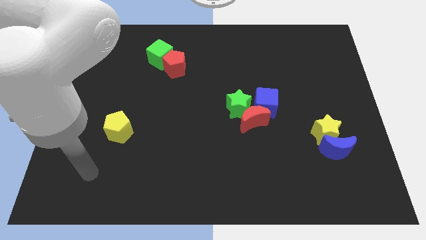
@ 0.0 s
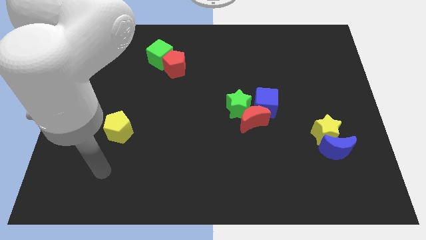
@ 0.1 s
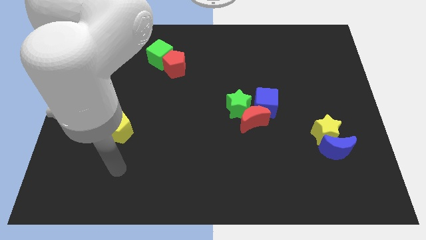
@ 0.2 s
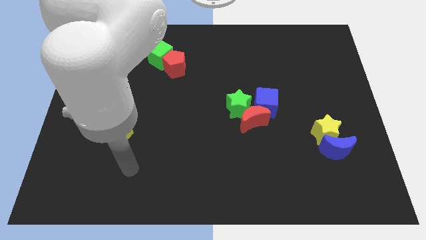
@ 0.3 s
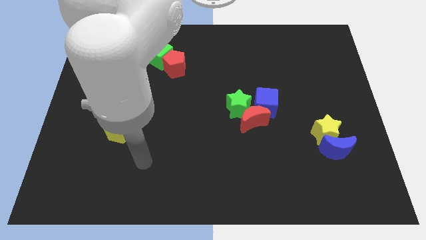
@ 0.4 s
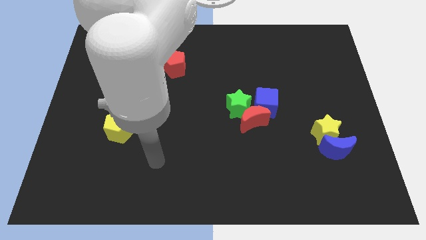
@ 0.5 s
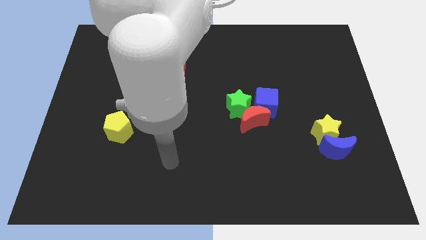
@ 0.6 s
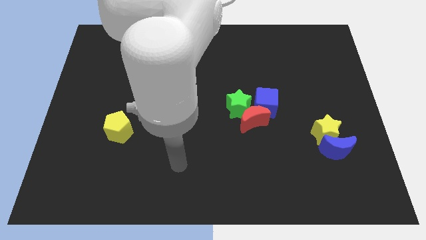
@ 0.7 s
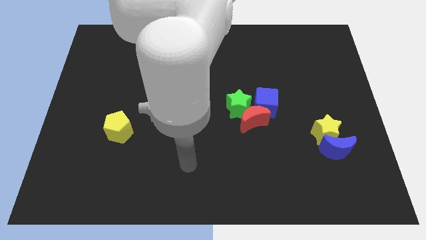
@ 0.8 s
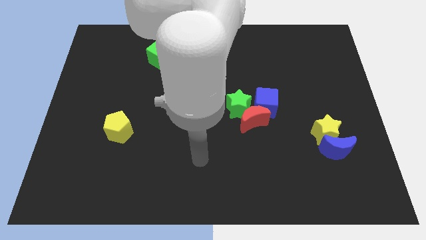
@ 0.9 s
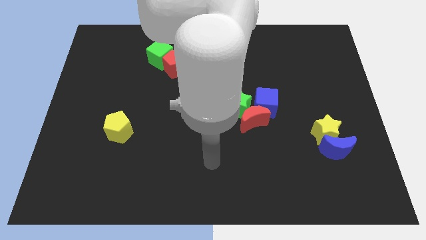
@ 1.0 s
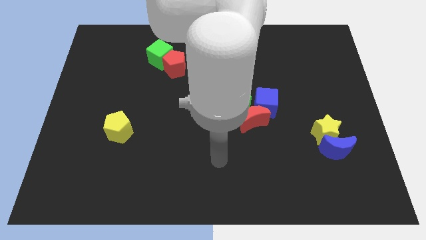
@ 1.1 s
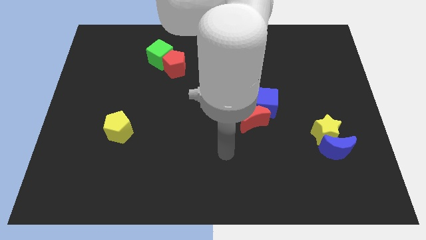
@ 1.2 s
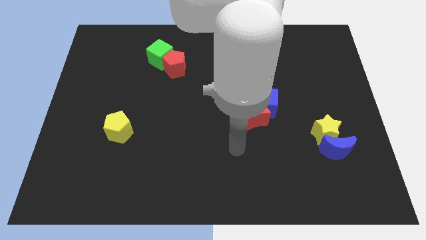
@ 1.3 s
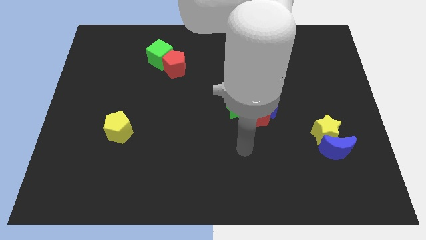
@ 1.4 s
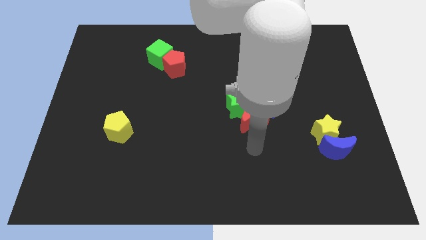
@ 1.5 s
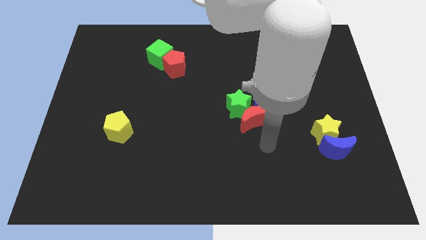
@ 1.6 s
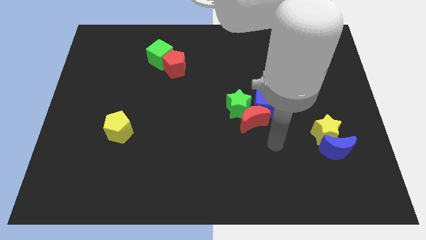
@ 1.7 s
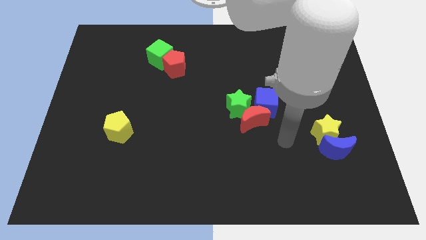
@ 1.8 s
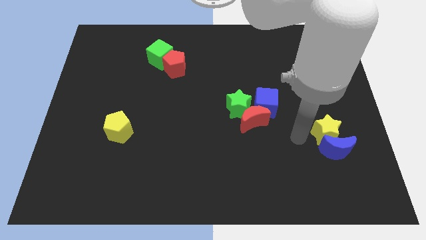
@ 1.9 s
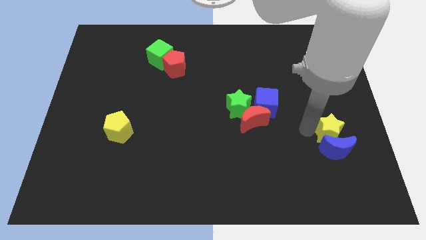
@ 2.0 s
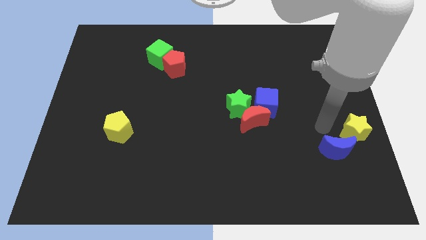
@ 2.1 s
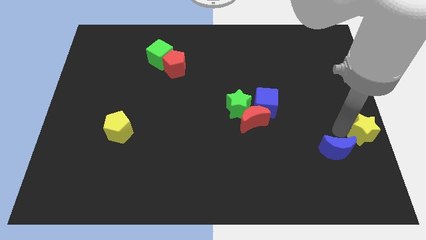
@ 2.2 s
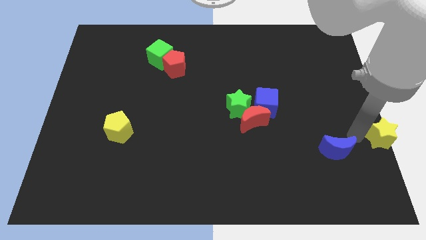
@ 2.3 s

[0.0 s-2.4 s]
separate the blue moon from the yellow star

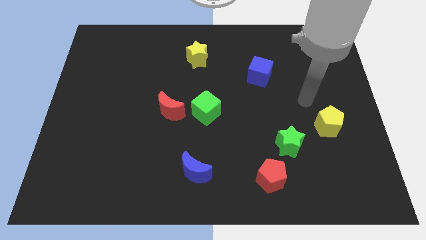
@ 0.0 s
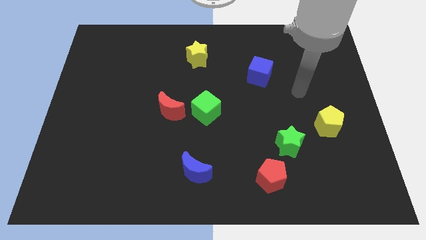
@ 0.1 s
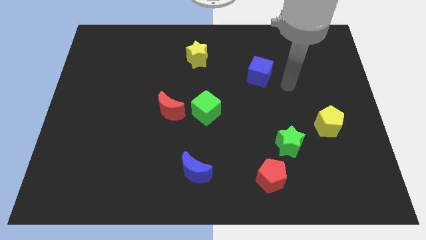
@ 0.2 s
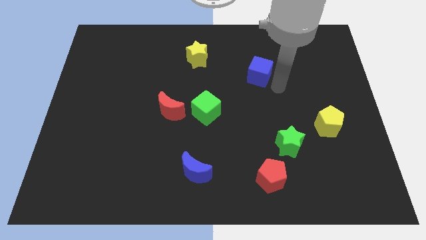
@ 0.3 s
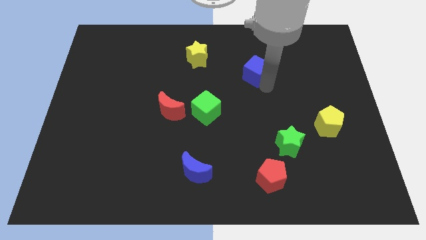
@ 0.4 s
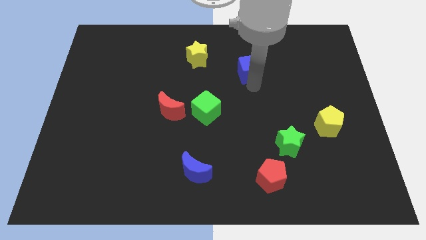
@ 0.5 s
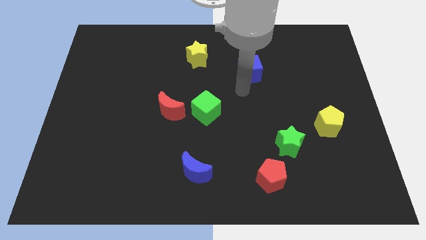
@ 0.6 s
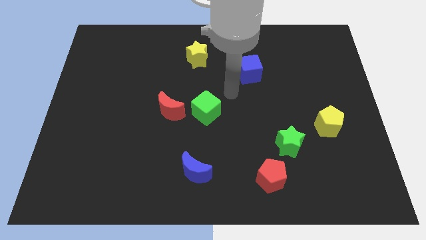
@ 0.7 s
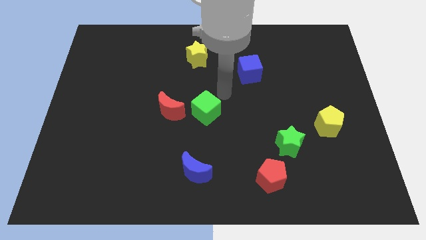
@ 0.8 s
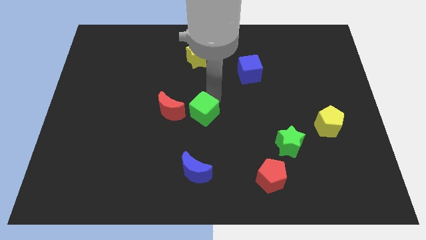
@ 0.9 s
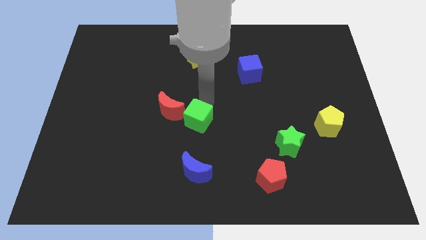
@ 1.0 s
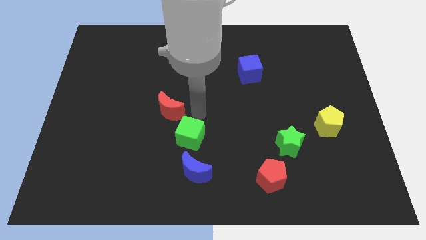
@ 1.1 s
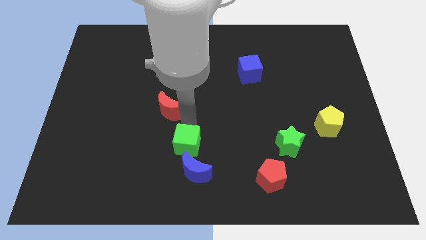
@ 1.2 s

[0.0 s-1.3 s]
separate the red moon from the green cube

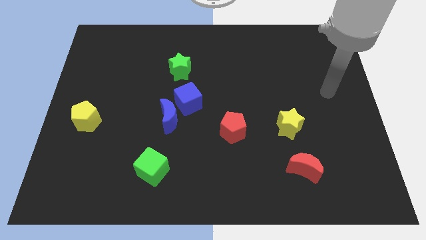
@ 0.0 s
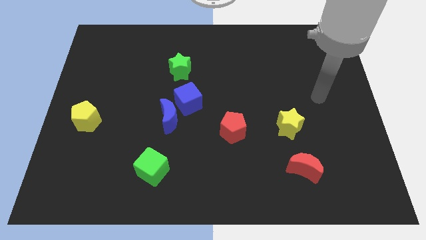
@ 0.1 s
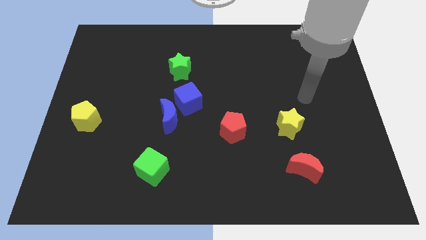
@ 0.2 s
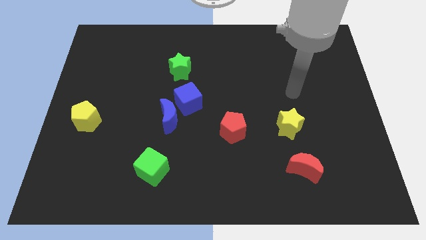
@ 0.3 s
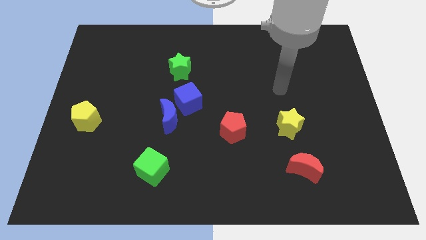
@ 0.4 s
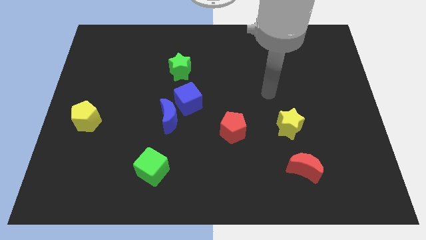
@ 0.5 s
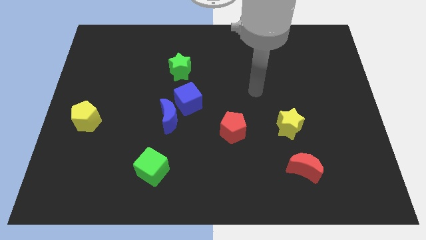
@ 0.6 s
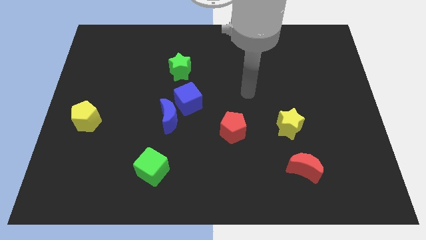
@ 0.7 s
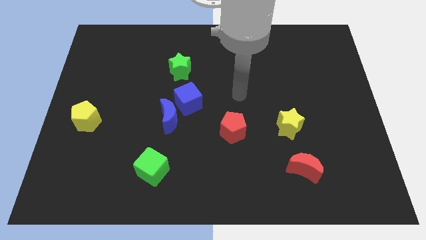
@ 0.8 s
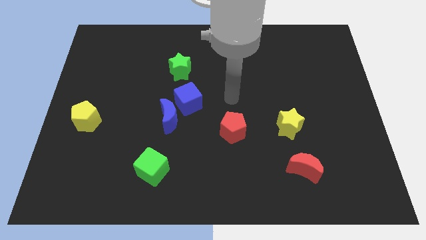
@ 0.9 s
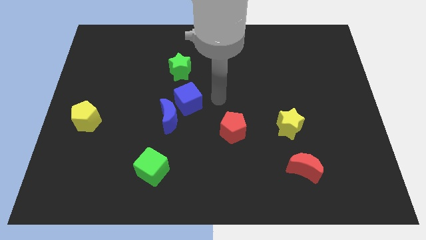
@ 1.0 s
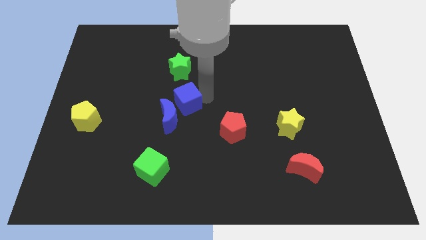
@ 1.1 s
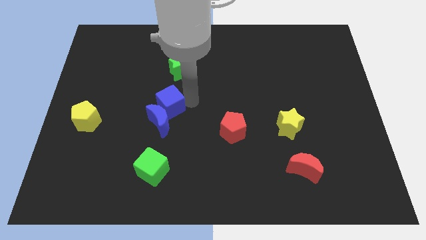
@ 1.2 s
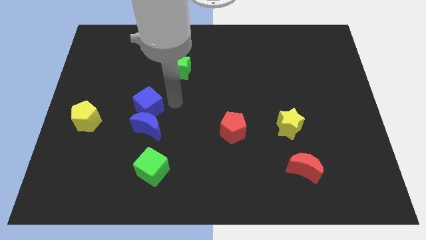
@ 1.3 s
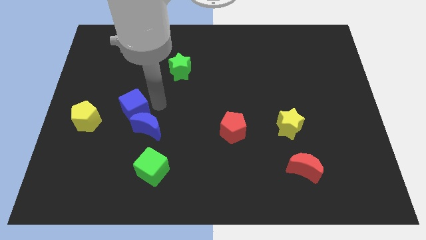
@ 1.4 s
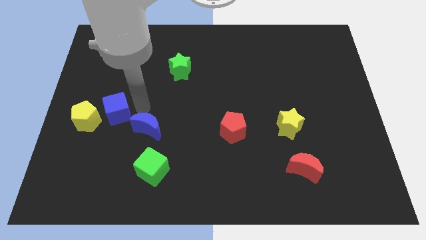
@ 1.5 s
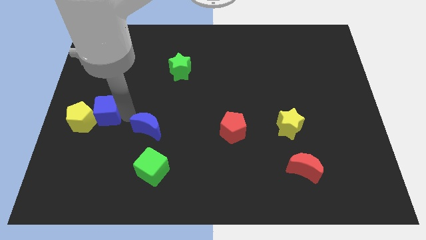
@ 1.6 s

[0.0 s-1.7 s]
move the blue moon away from the blue cube

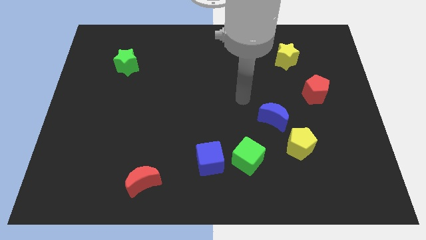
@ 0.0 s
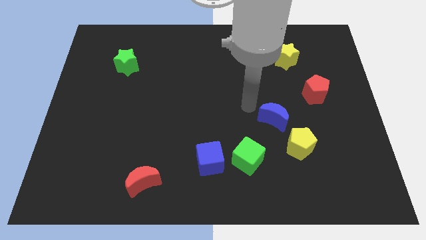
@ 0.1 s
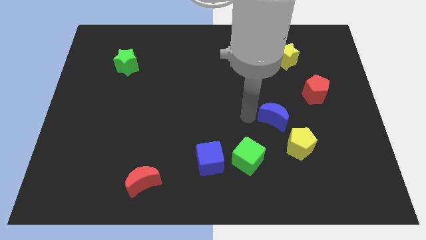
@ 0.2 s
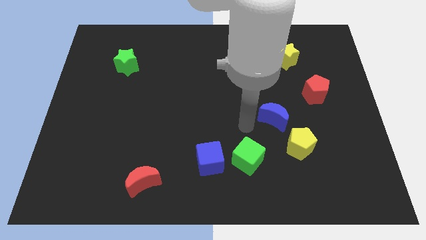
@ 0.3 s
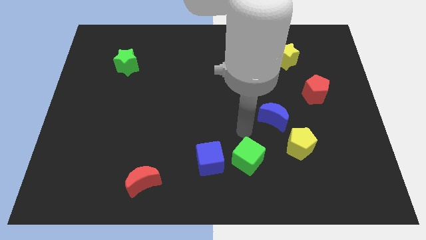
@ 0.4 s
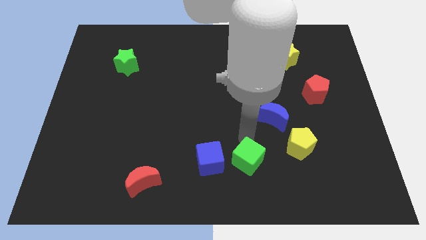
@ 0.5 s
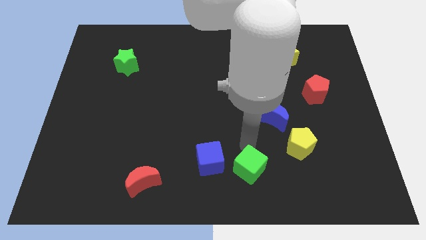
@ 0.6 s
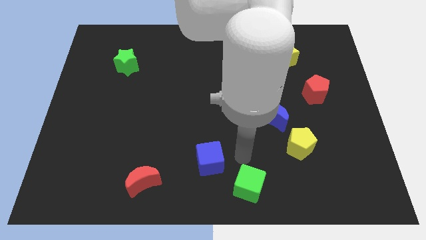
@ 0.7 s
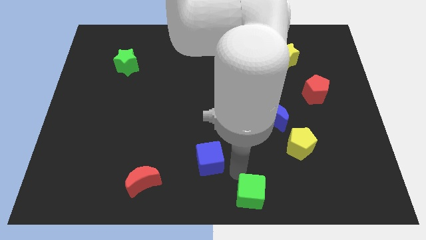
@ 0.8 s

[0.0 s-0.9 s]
separate the blue cube from the green cube

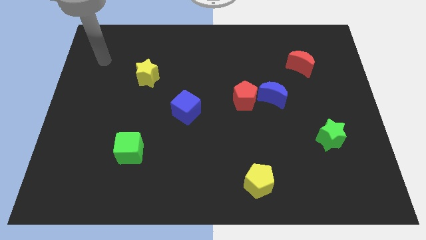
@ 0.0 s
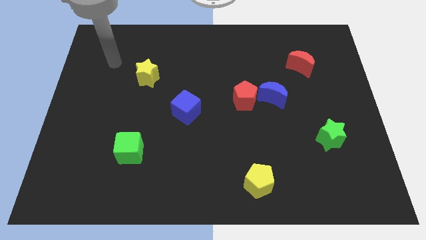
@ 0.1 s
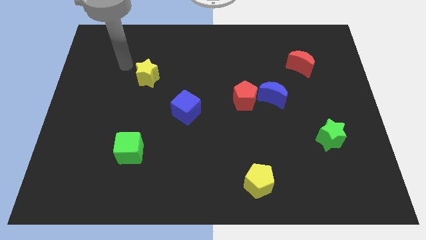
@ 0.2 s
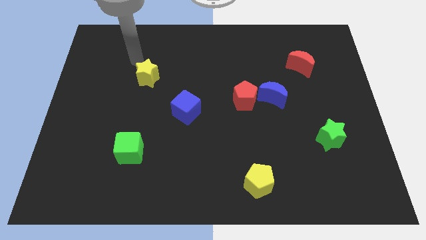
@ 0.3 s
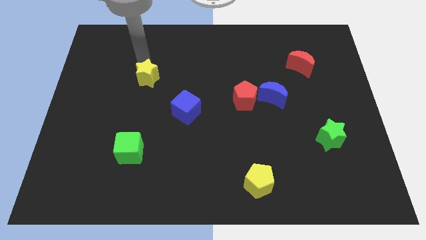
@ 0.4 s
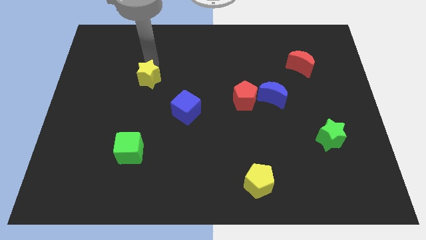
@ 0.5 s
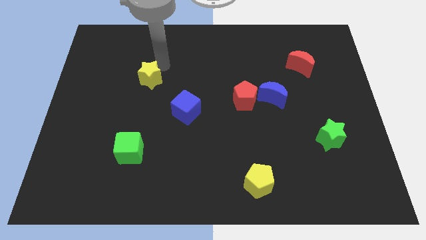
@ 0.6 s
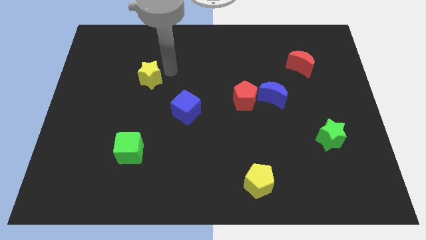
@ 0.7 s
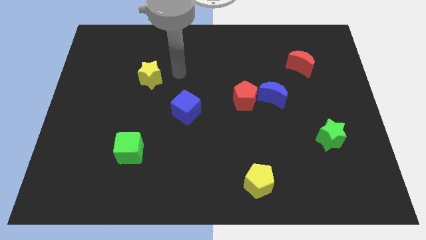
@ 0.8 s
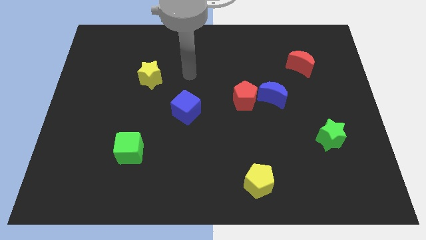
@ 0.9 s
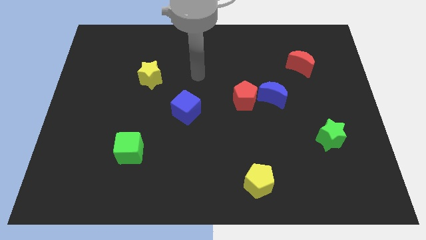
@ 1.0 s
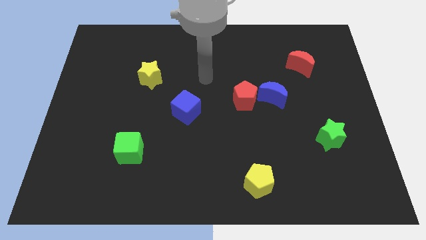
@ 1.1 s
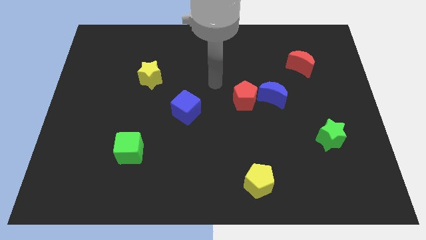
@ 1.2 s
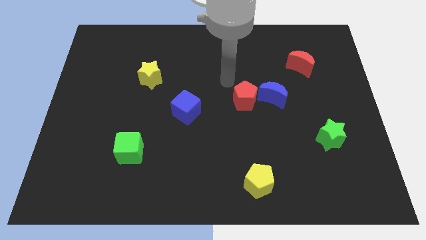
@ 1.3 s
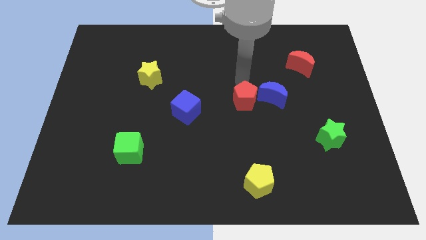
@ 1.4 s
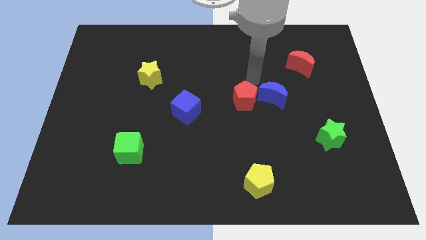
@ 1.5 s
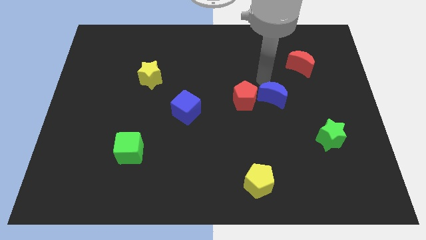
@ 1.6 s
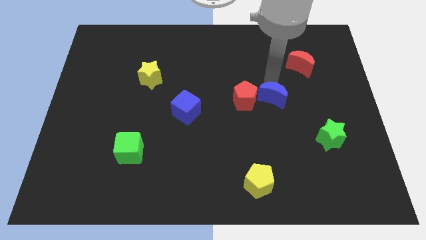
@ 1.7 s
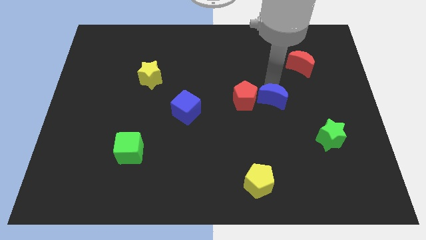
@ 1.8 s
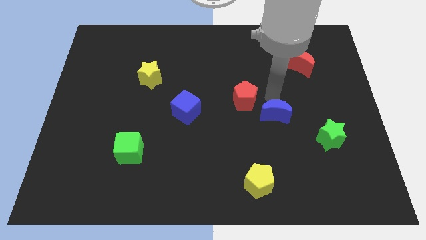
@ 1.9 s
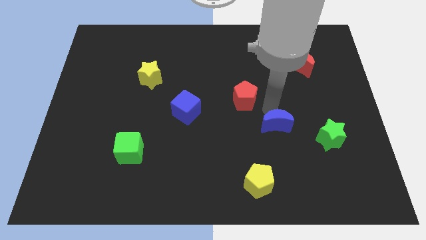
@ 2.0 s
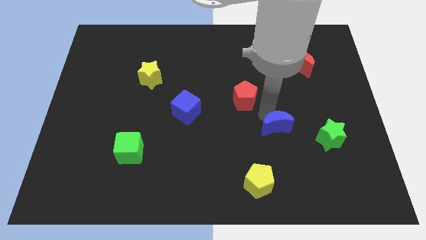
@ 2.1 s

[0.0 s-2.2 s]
pull the red pentagon apart from the blue moon

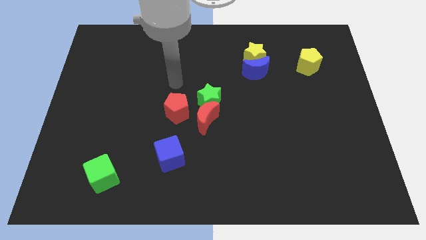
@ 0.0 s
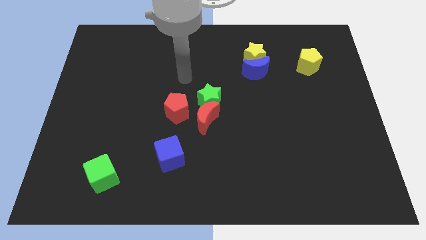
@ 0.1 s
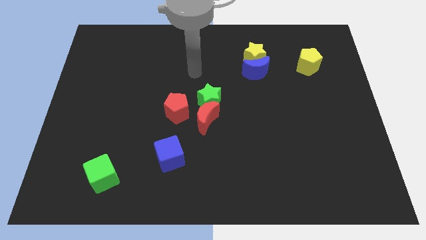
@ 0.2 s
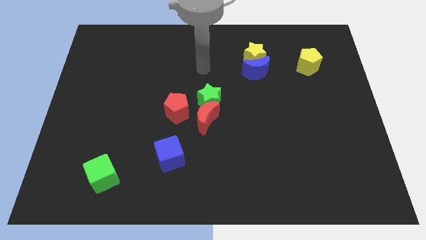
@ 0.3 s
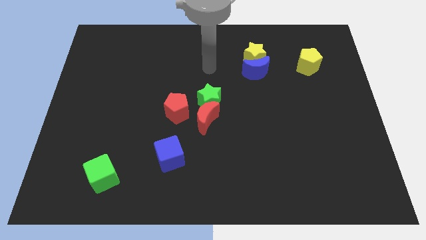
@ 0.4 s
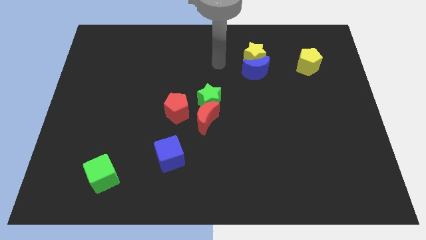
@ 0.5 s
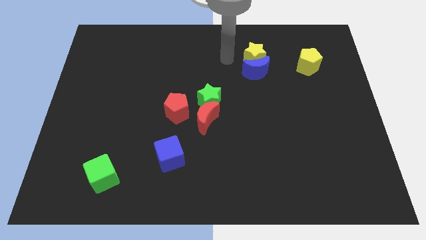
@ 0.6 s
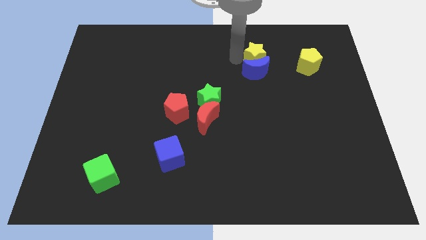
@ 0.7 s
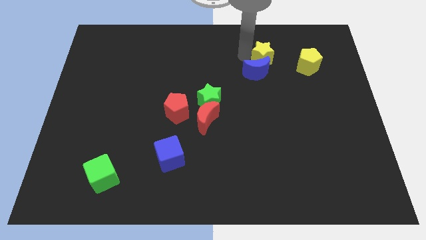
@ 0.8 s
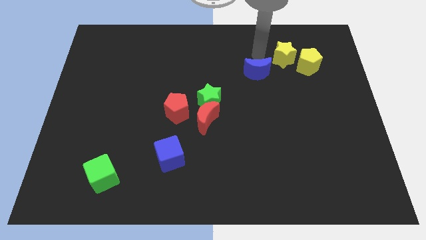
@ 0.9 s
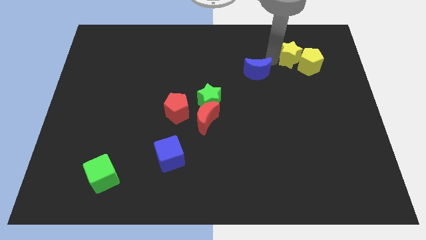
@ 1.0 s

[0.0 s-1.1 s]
move the blue moon away from the yellow star
